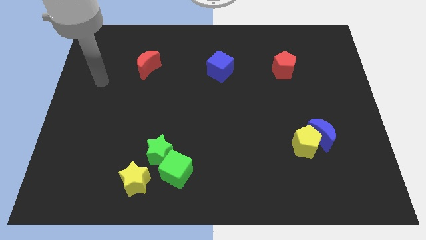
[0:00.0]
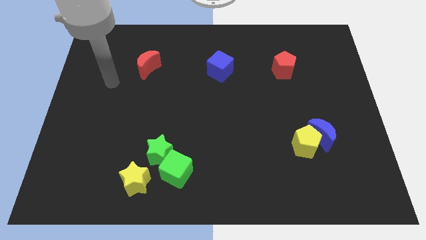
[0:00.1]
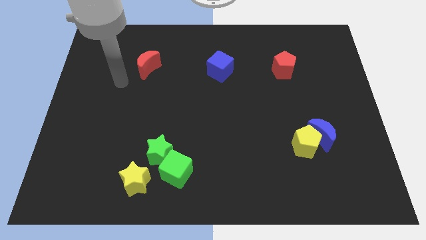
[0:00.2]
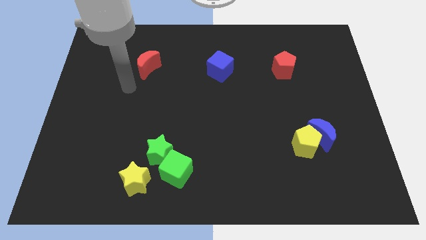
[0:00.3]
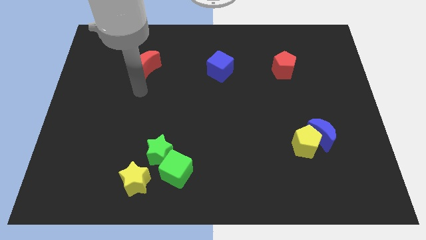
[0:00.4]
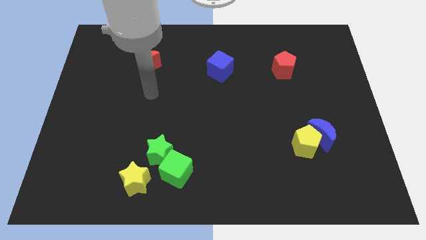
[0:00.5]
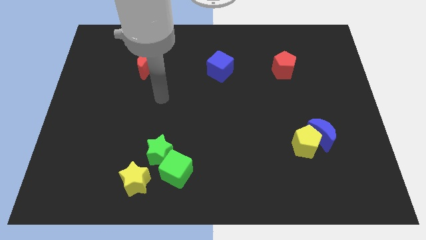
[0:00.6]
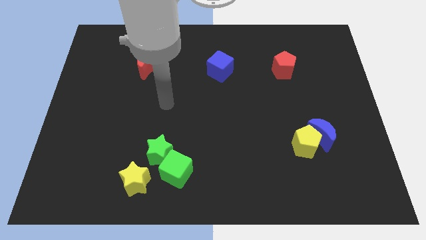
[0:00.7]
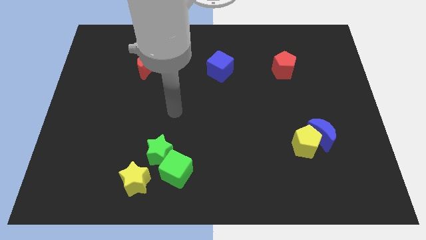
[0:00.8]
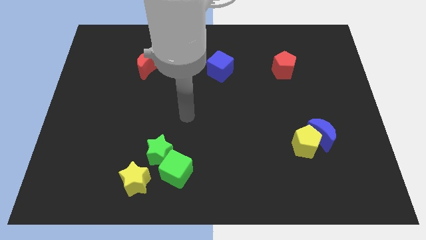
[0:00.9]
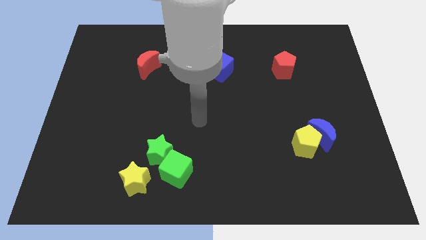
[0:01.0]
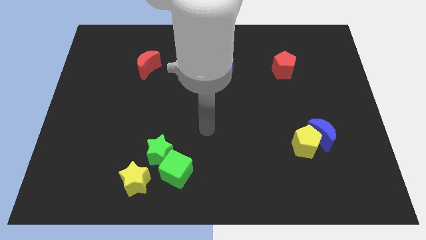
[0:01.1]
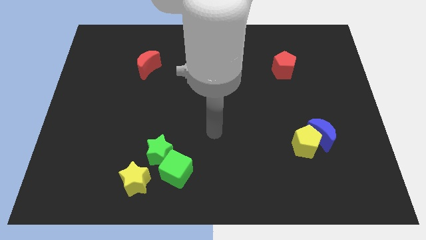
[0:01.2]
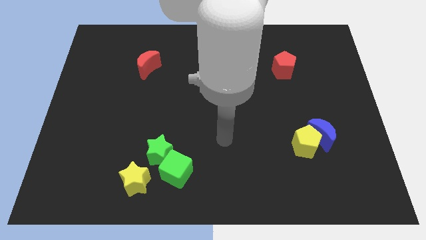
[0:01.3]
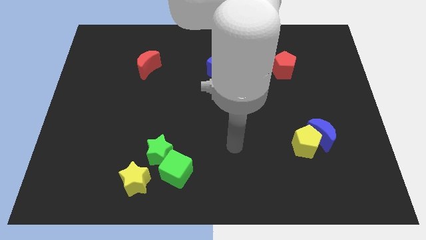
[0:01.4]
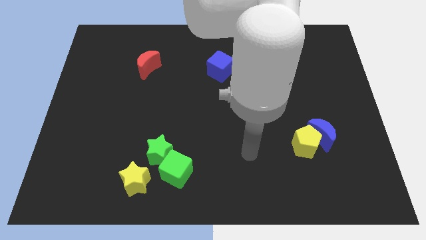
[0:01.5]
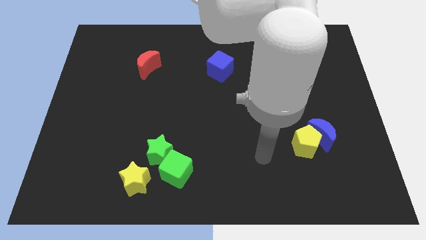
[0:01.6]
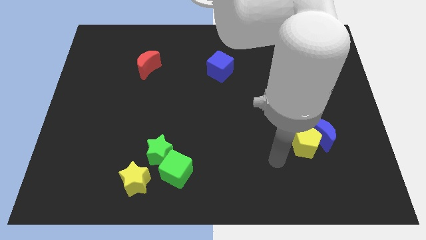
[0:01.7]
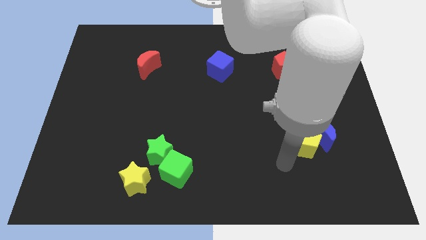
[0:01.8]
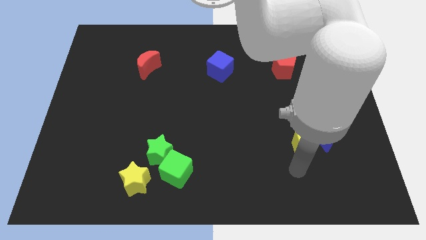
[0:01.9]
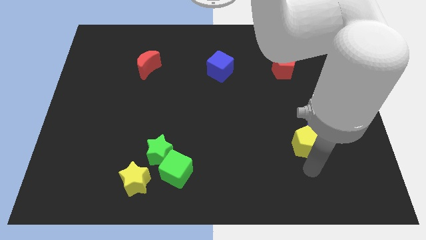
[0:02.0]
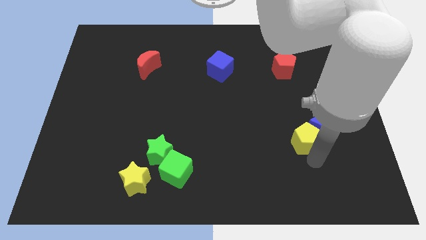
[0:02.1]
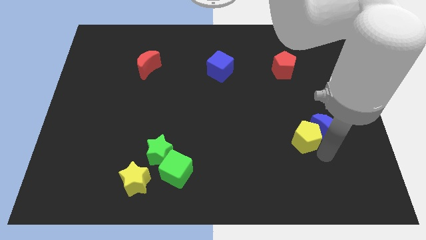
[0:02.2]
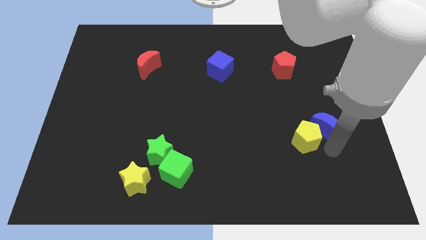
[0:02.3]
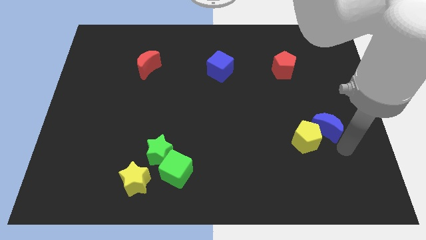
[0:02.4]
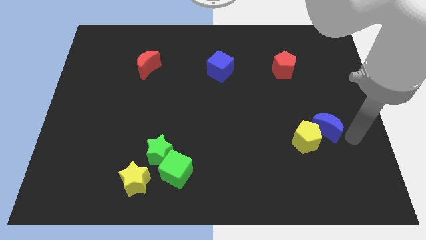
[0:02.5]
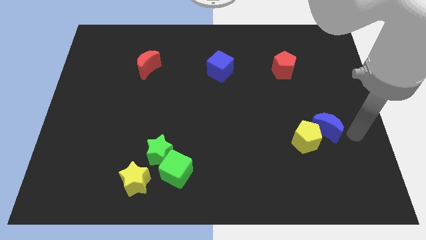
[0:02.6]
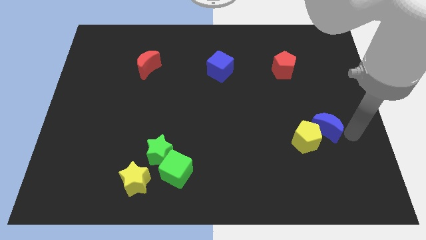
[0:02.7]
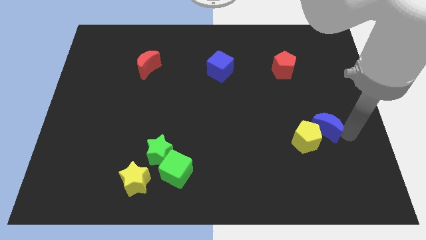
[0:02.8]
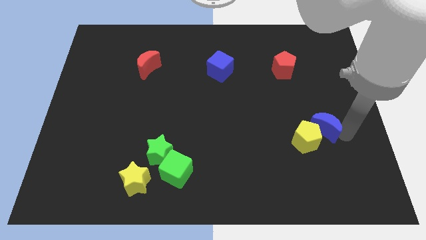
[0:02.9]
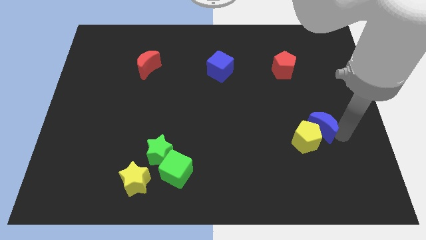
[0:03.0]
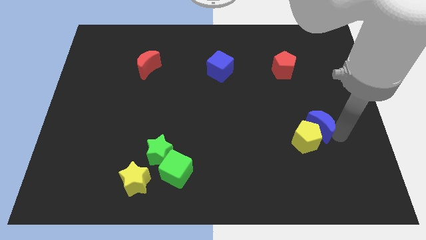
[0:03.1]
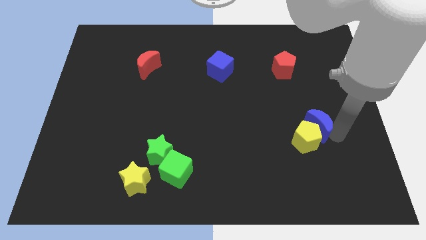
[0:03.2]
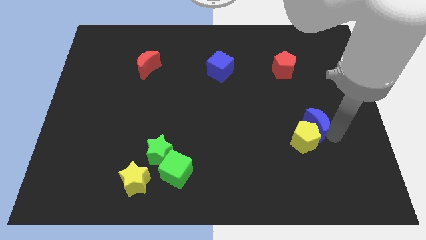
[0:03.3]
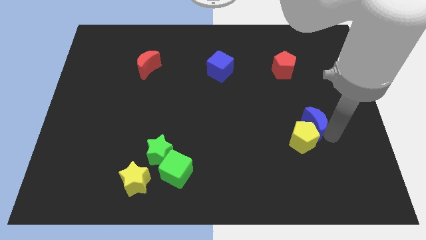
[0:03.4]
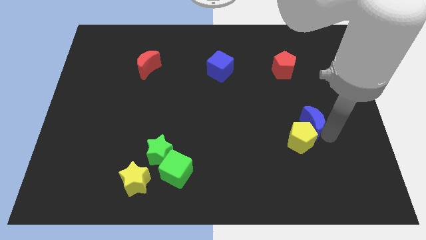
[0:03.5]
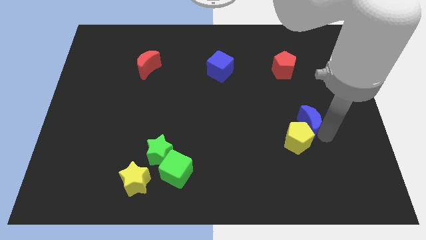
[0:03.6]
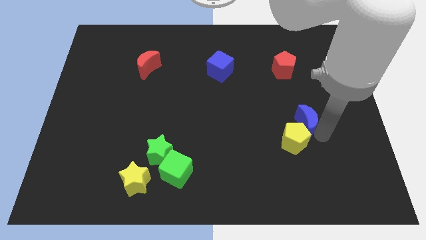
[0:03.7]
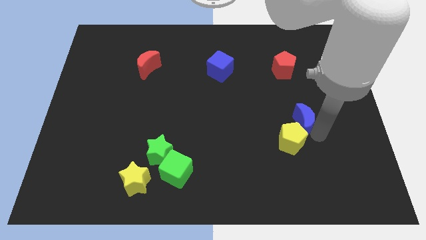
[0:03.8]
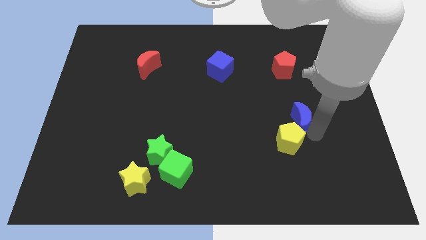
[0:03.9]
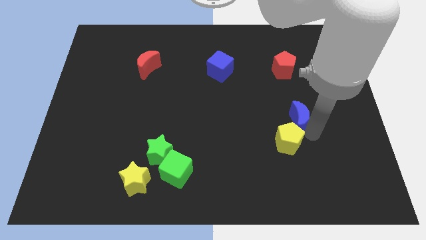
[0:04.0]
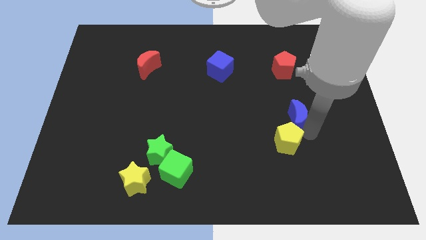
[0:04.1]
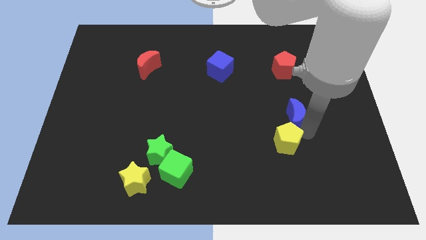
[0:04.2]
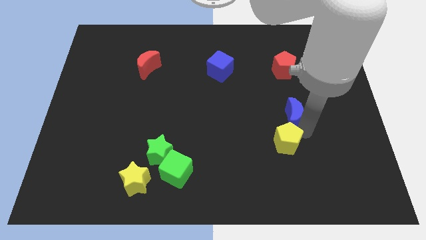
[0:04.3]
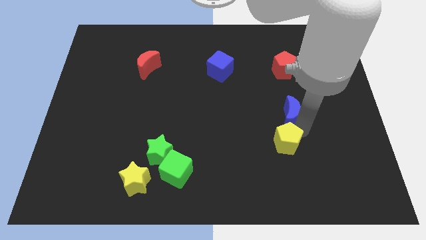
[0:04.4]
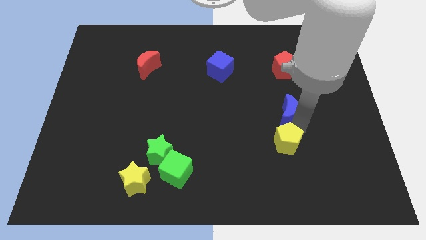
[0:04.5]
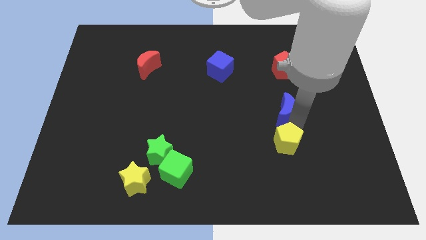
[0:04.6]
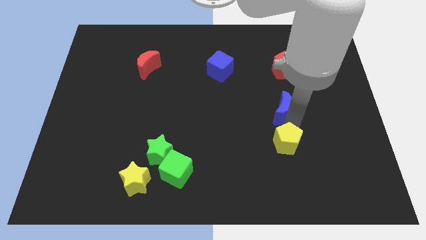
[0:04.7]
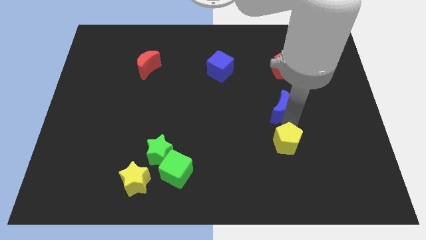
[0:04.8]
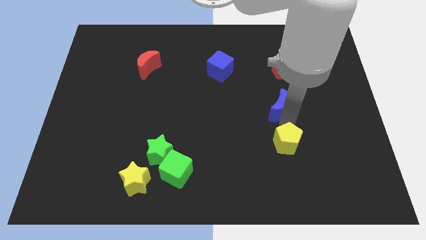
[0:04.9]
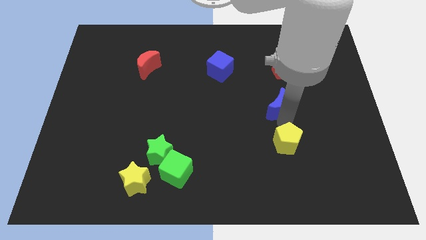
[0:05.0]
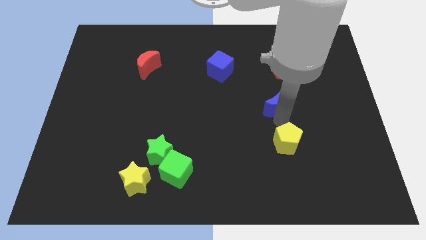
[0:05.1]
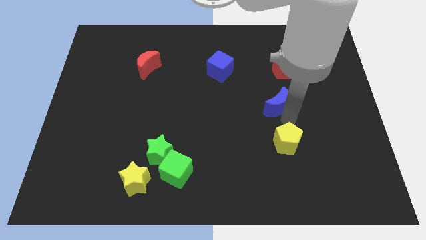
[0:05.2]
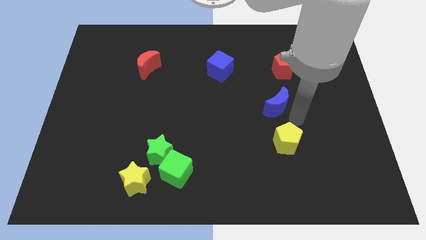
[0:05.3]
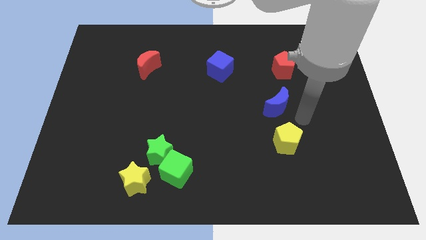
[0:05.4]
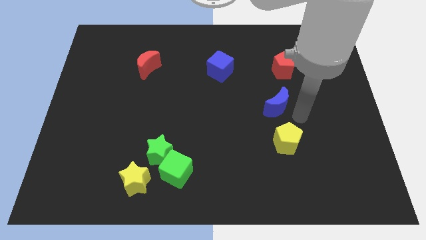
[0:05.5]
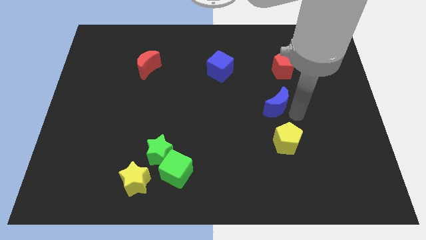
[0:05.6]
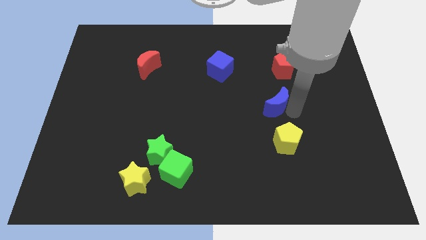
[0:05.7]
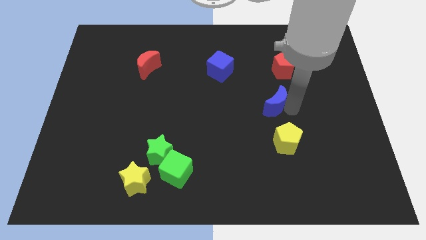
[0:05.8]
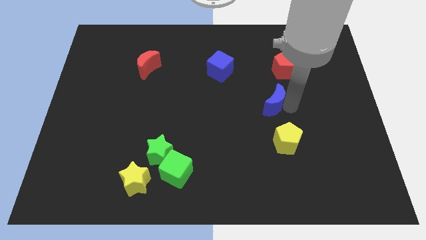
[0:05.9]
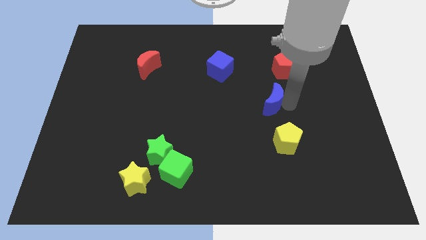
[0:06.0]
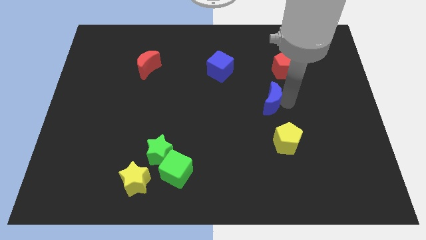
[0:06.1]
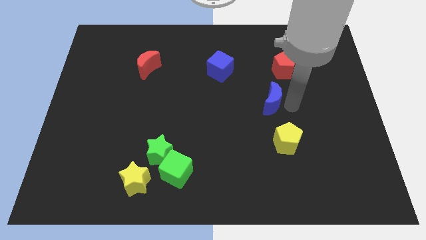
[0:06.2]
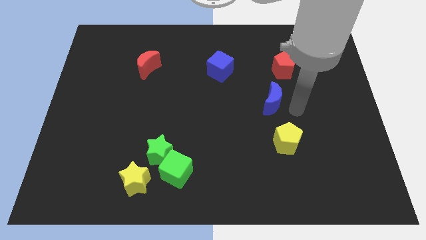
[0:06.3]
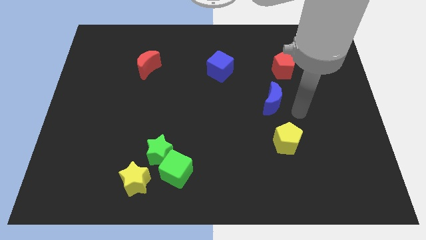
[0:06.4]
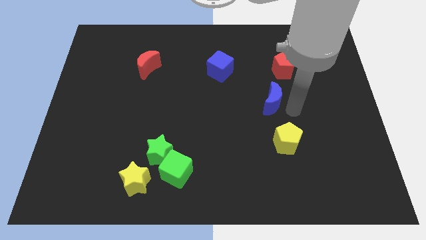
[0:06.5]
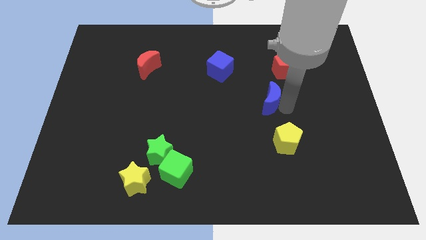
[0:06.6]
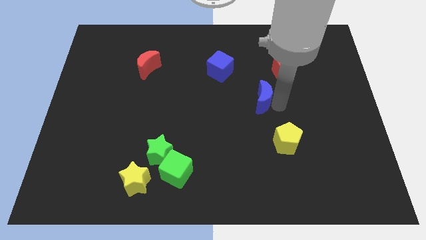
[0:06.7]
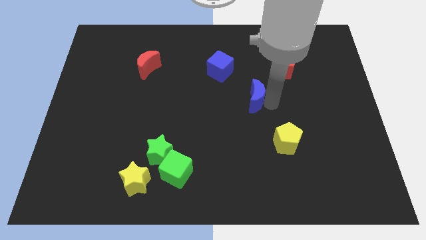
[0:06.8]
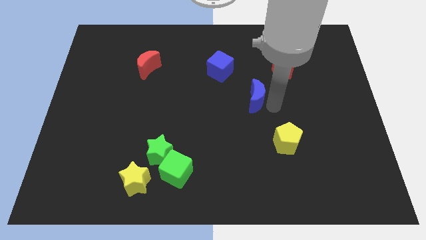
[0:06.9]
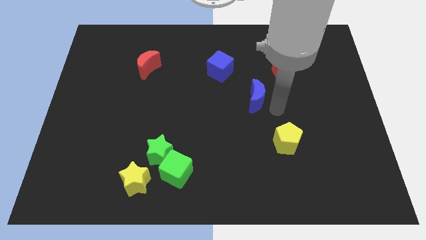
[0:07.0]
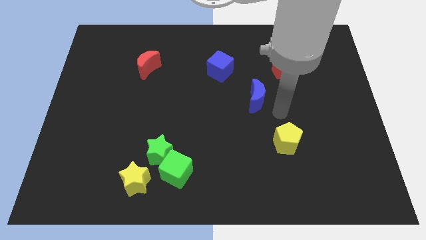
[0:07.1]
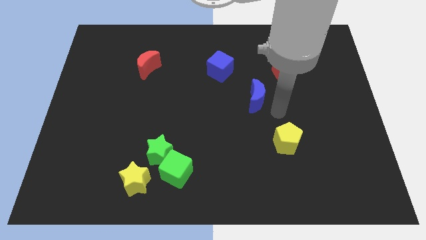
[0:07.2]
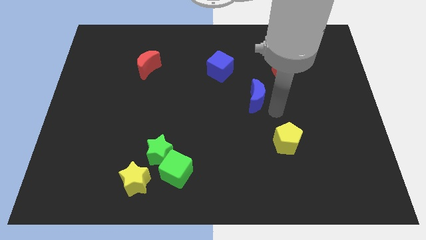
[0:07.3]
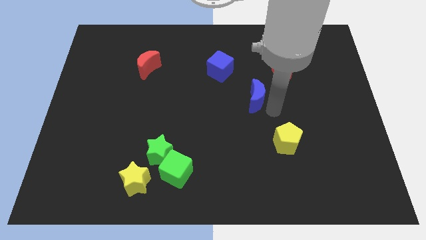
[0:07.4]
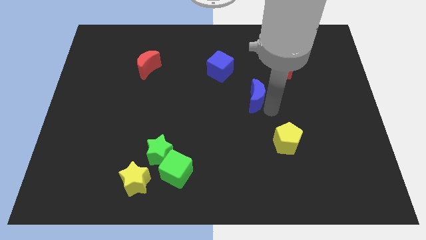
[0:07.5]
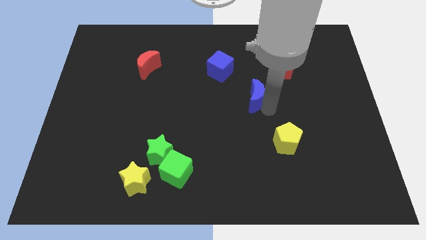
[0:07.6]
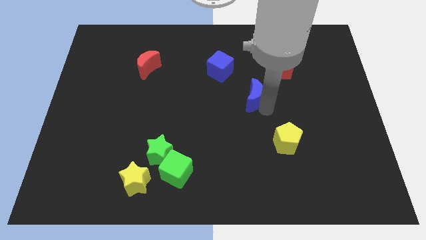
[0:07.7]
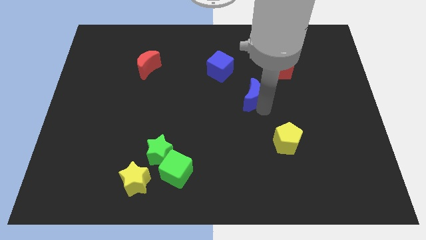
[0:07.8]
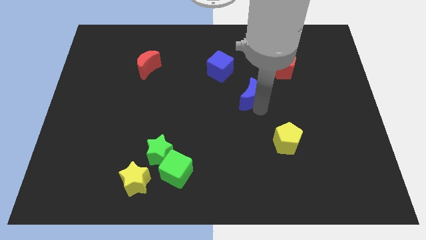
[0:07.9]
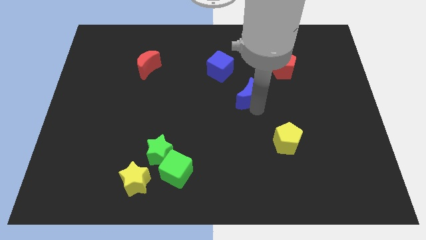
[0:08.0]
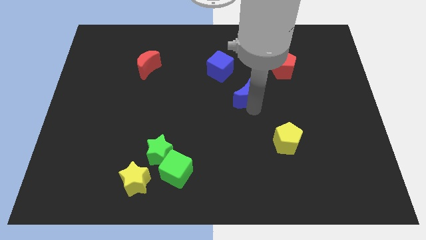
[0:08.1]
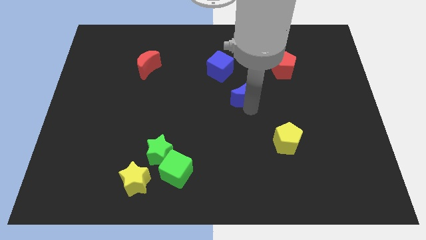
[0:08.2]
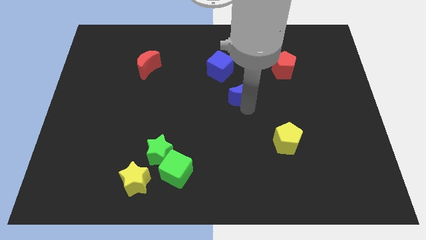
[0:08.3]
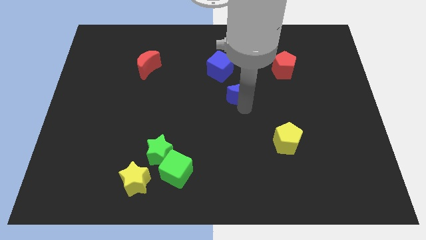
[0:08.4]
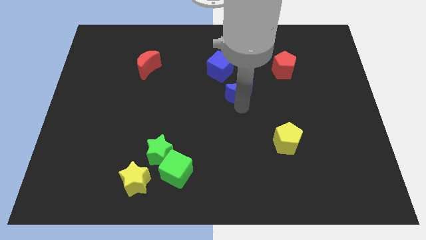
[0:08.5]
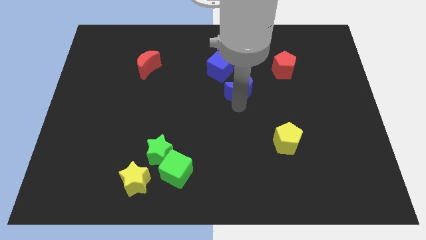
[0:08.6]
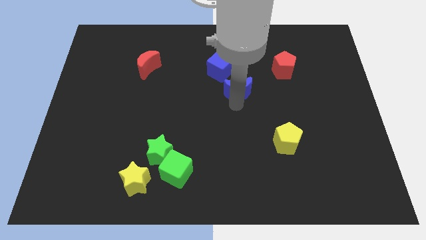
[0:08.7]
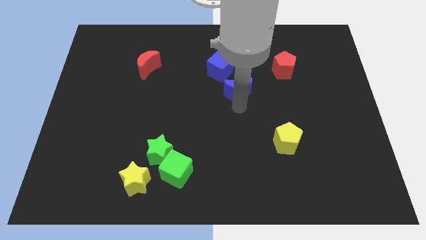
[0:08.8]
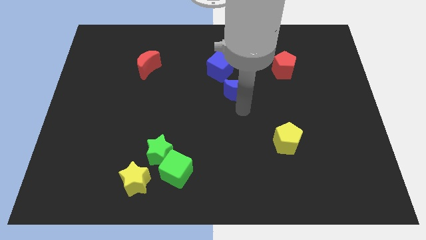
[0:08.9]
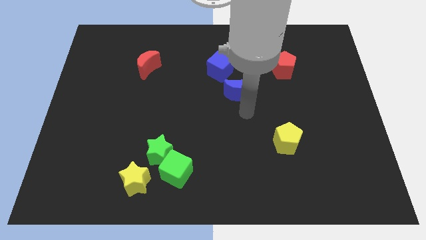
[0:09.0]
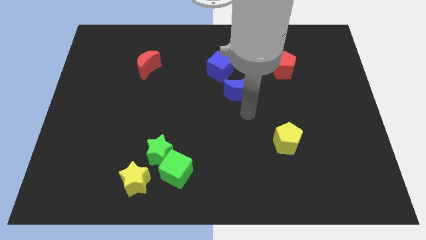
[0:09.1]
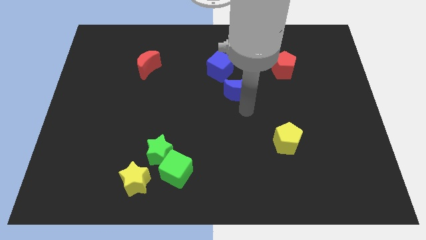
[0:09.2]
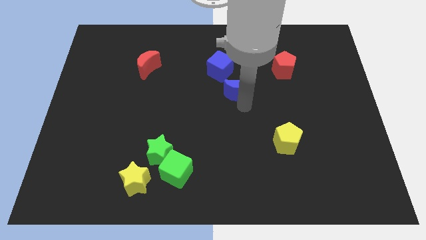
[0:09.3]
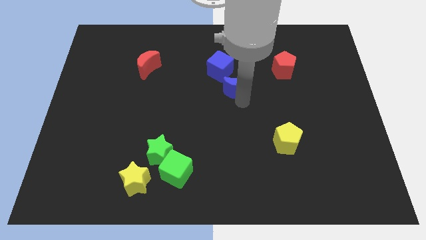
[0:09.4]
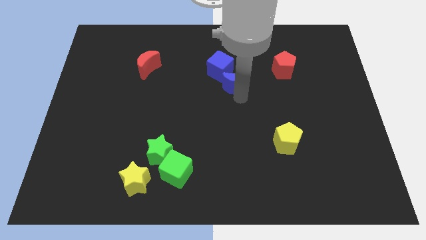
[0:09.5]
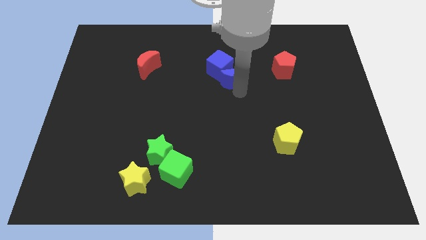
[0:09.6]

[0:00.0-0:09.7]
slide the blue moon close to the blue cube
